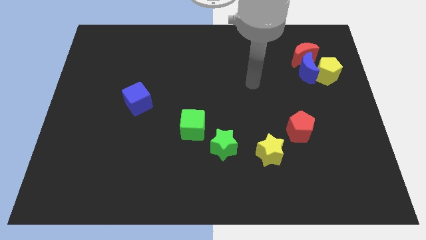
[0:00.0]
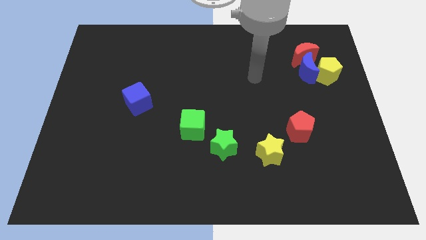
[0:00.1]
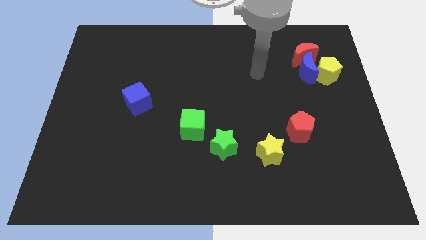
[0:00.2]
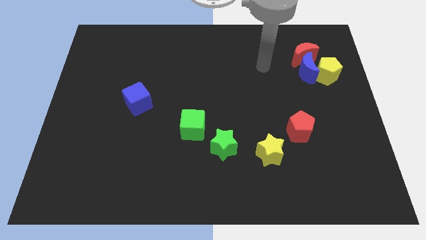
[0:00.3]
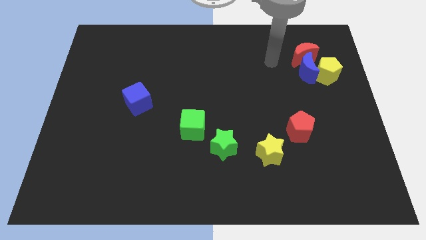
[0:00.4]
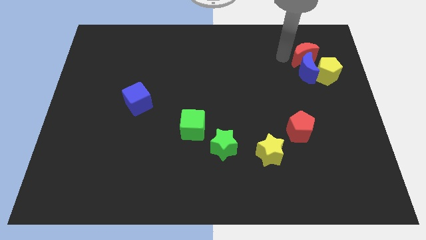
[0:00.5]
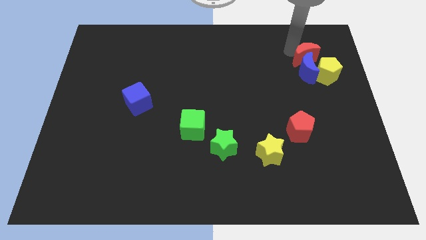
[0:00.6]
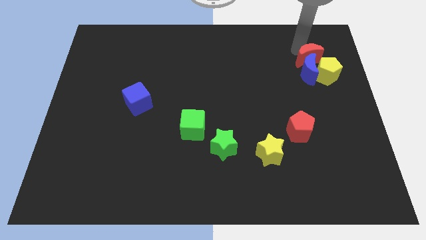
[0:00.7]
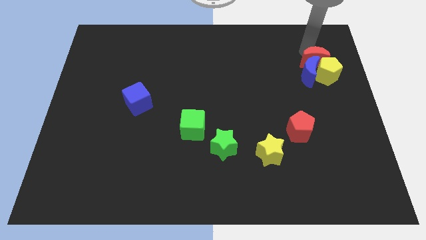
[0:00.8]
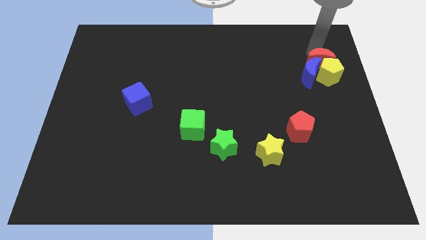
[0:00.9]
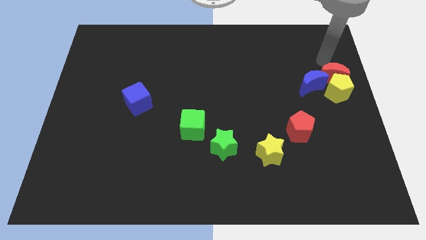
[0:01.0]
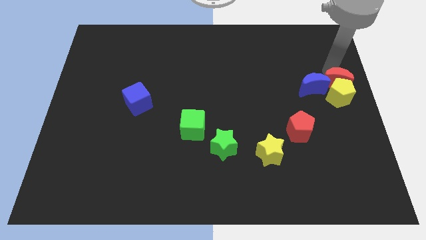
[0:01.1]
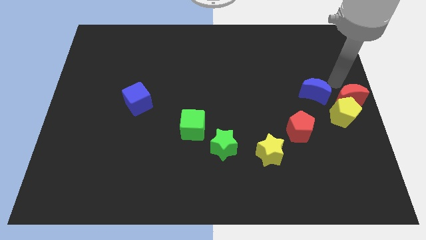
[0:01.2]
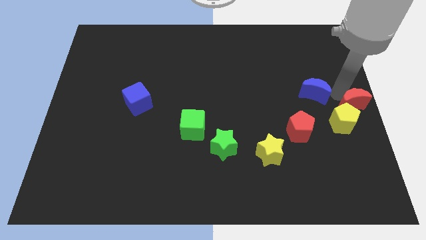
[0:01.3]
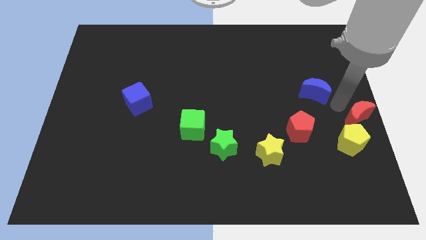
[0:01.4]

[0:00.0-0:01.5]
pull the blue moon apart from the yellow pentagon and red moon

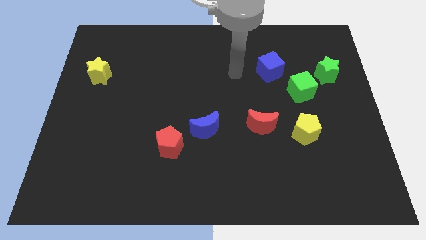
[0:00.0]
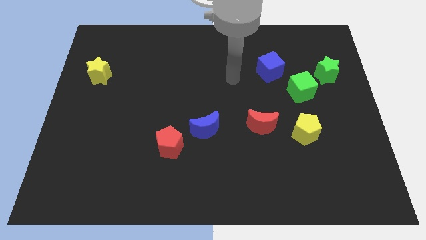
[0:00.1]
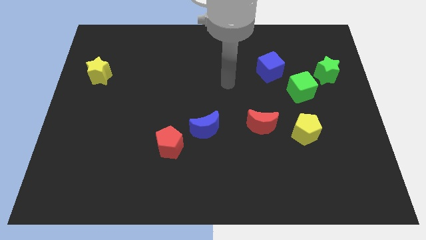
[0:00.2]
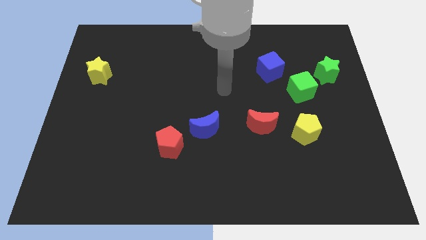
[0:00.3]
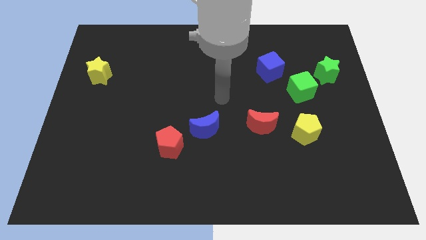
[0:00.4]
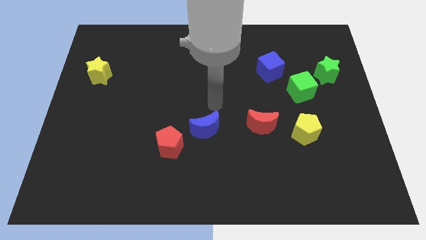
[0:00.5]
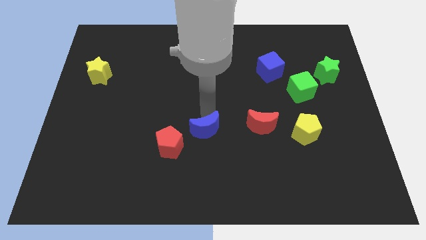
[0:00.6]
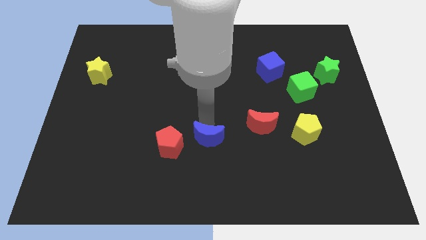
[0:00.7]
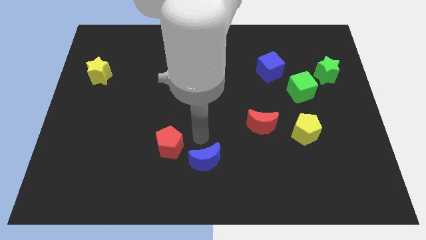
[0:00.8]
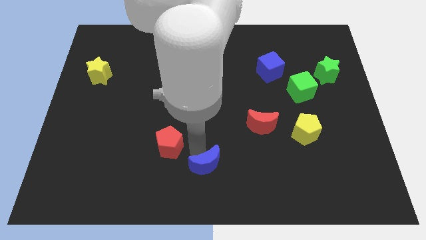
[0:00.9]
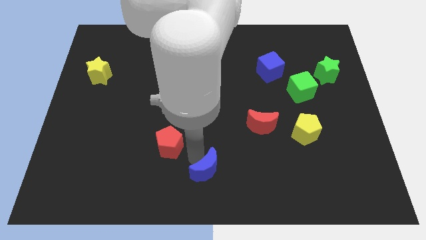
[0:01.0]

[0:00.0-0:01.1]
separate the red pentagon from the blue moon

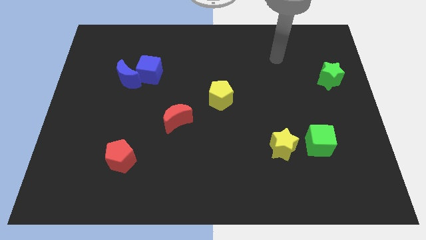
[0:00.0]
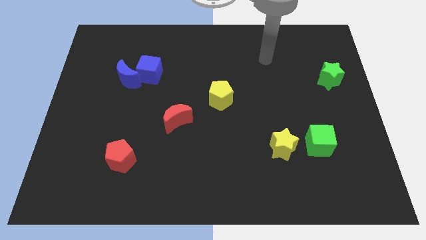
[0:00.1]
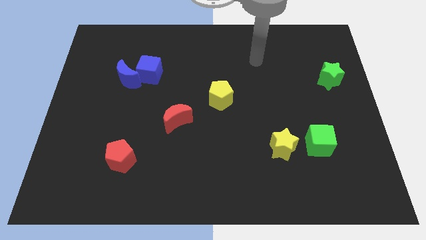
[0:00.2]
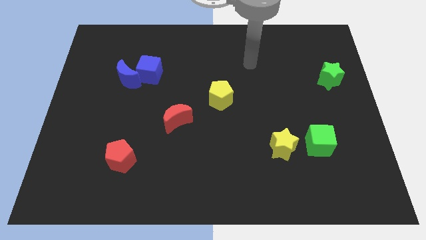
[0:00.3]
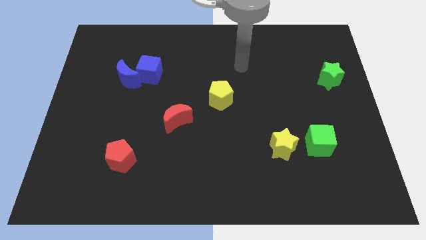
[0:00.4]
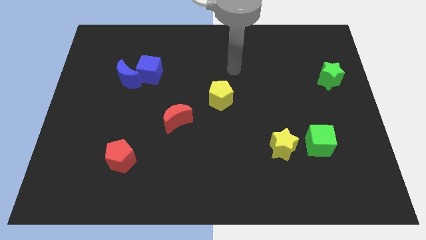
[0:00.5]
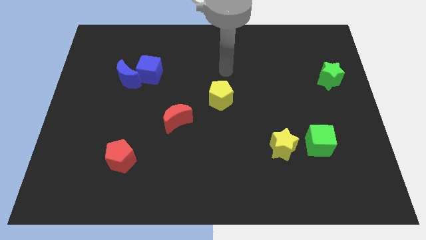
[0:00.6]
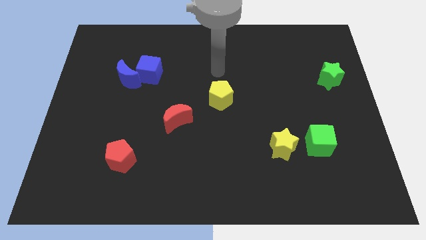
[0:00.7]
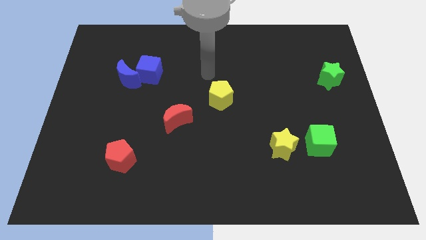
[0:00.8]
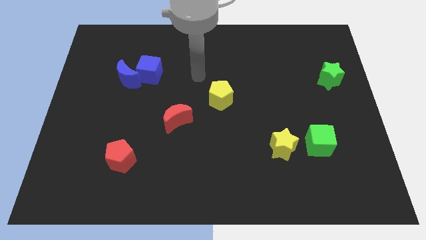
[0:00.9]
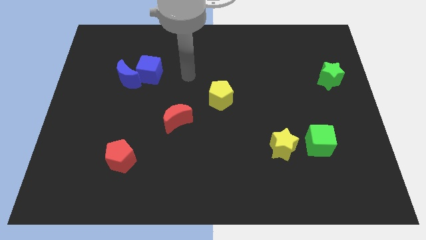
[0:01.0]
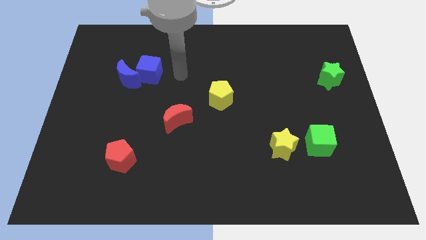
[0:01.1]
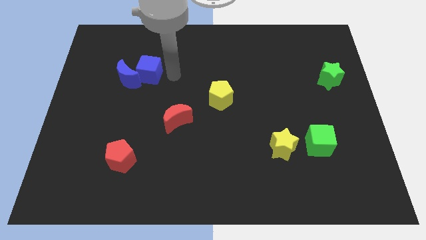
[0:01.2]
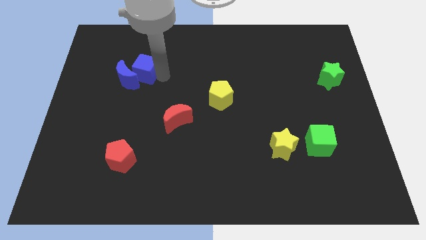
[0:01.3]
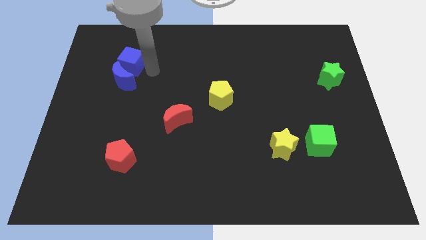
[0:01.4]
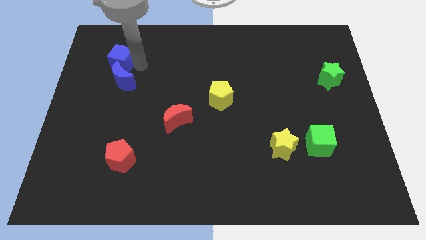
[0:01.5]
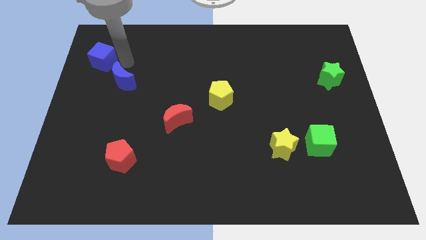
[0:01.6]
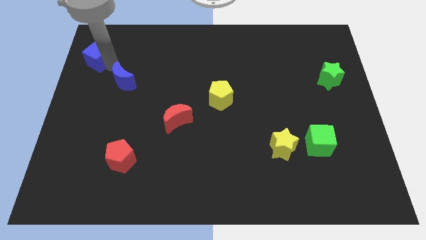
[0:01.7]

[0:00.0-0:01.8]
pull the blue moon apart from the blue cube

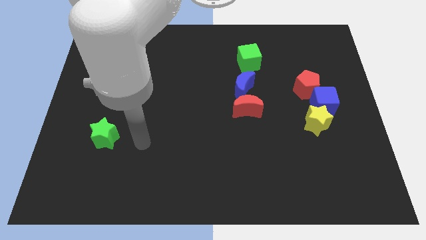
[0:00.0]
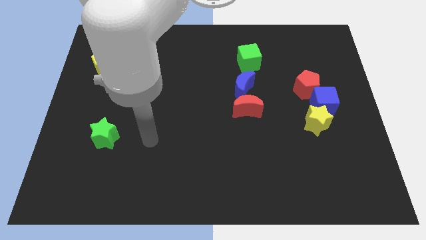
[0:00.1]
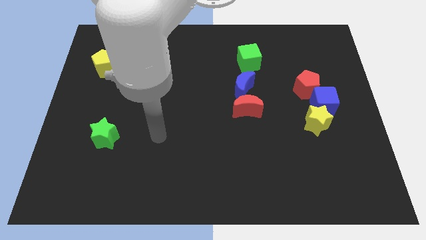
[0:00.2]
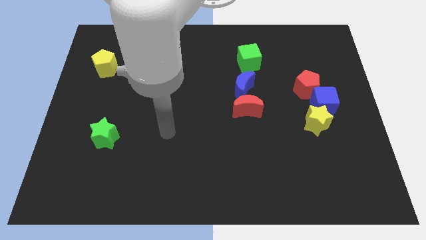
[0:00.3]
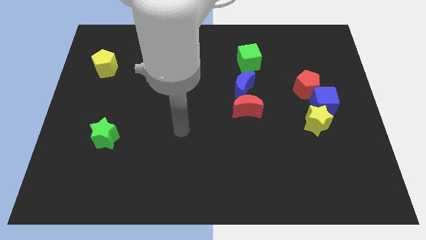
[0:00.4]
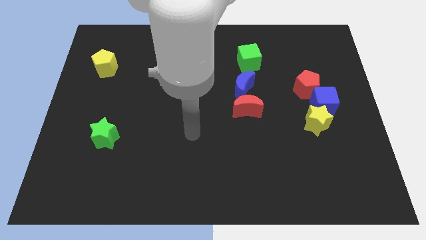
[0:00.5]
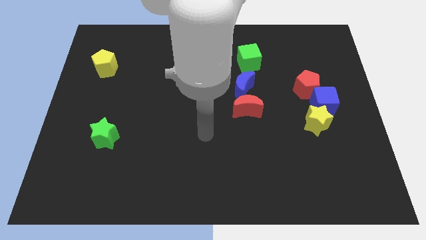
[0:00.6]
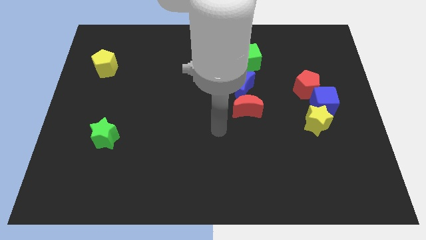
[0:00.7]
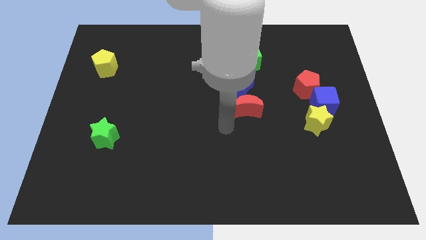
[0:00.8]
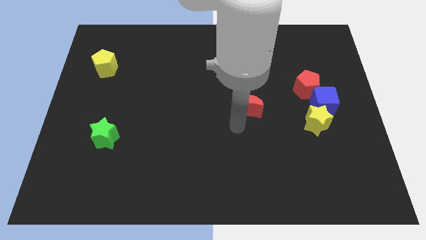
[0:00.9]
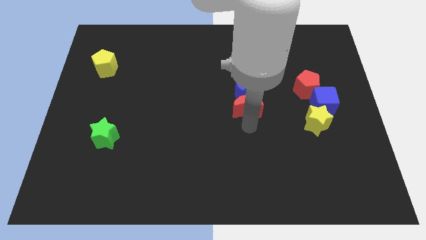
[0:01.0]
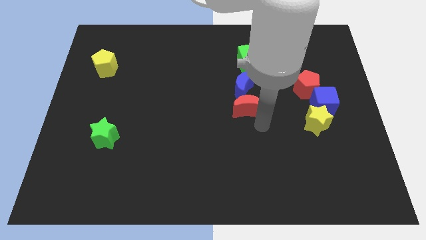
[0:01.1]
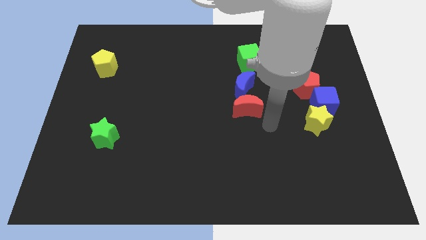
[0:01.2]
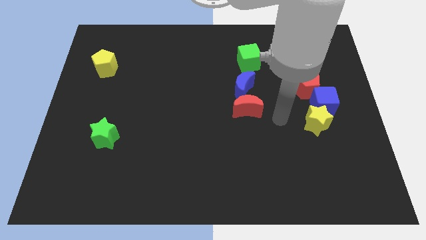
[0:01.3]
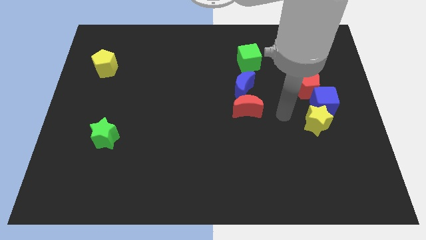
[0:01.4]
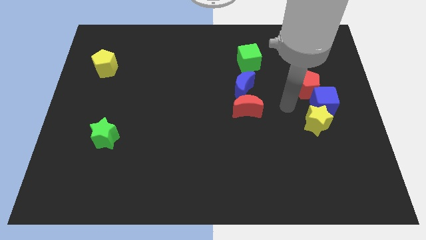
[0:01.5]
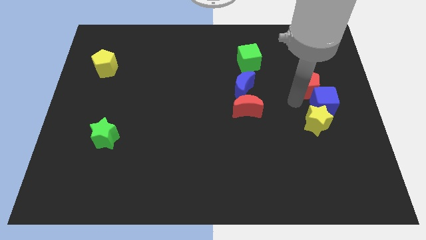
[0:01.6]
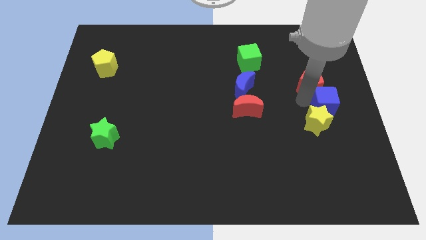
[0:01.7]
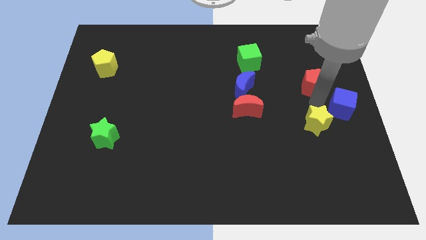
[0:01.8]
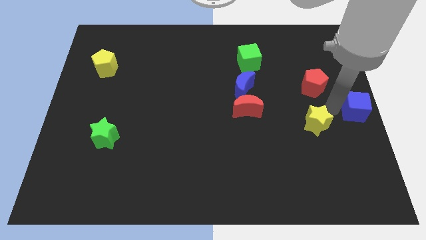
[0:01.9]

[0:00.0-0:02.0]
move the yellow star away from the blue cube

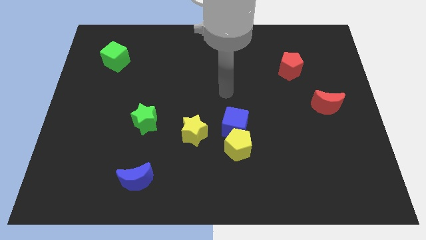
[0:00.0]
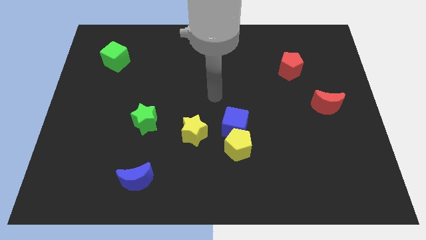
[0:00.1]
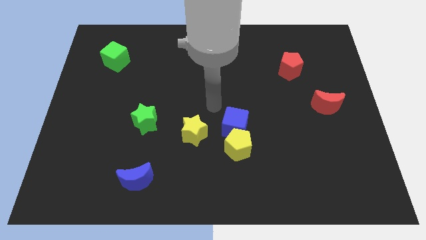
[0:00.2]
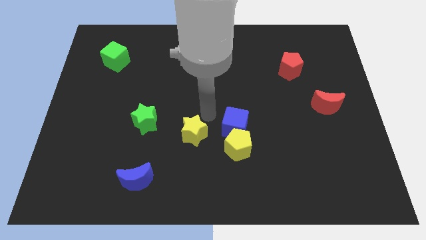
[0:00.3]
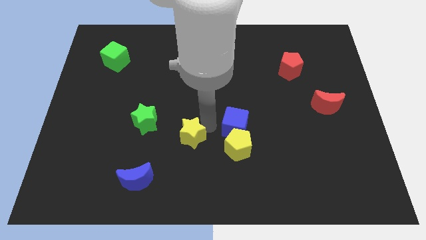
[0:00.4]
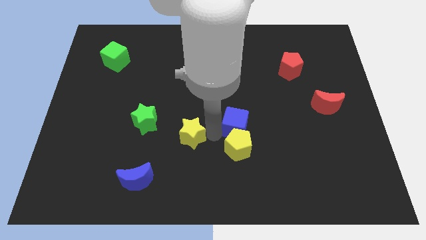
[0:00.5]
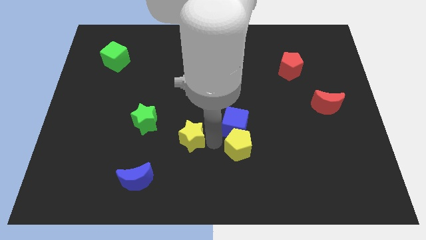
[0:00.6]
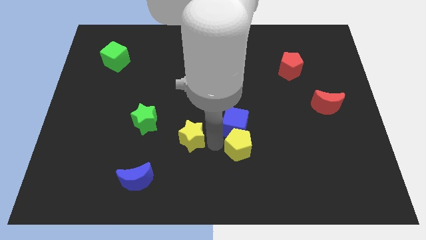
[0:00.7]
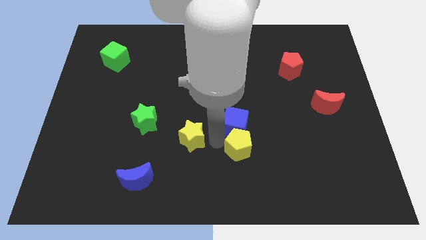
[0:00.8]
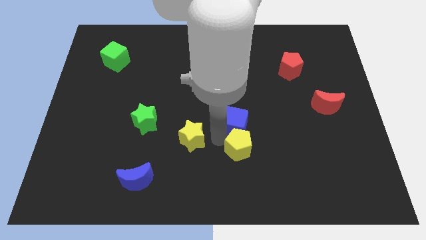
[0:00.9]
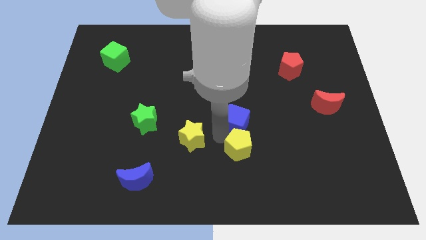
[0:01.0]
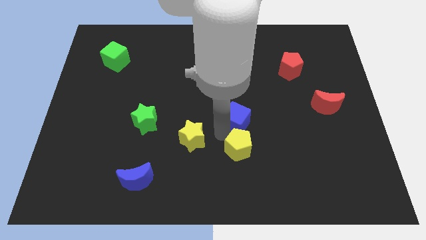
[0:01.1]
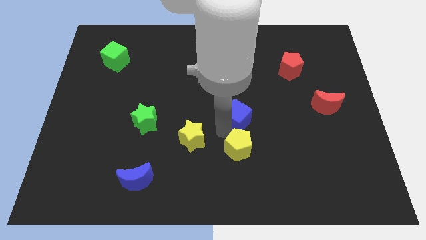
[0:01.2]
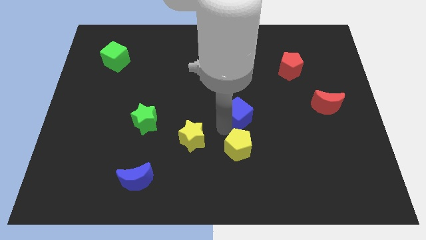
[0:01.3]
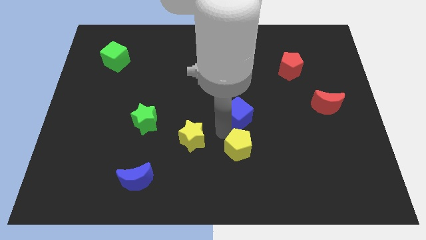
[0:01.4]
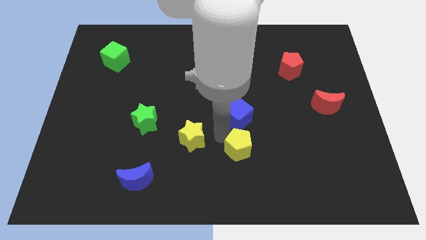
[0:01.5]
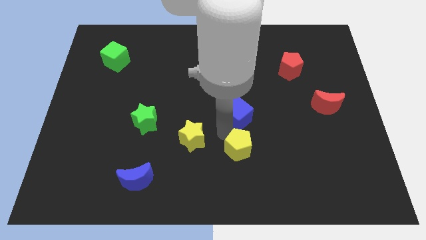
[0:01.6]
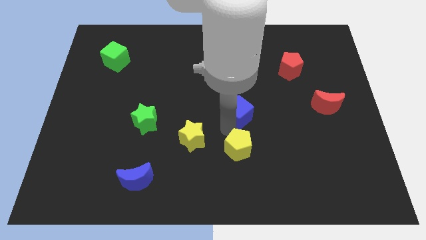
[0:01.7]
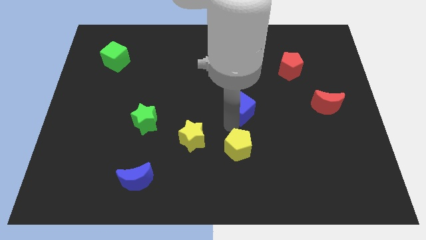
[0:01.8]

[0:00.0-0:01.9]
move the blue cube away from the yellow pentagon and yellow star

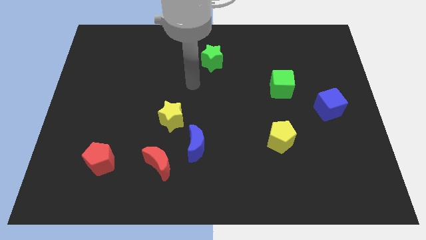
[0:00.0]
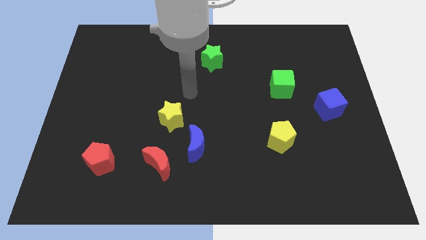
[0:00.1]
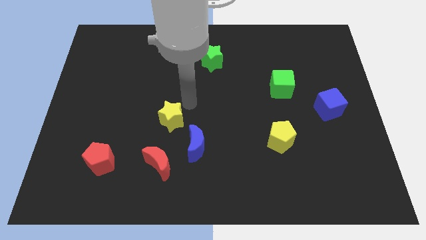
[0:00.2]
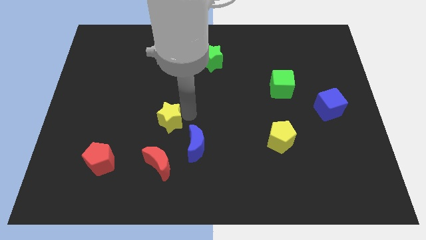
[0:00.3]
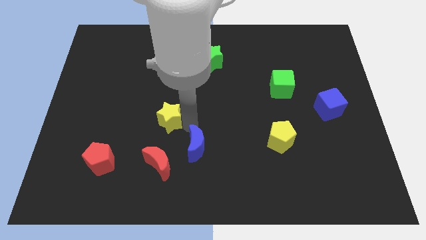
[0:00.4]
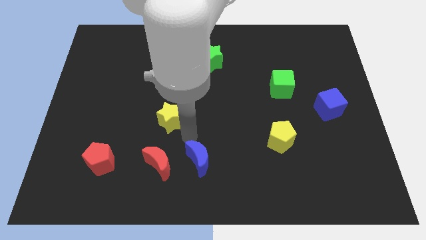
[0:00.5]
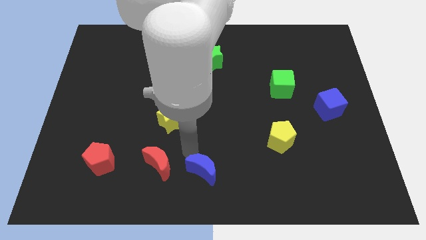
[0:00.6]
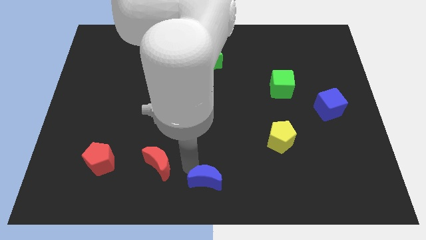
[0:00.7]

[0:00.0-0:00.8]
pull the red moon apart from the blue moon
